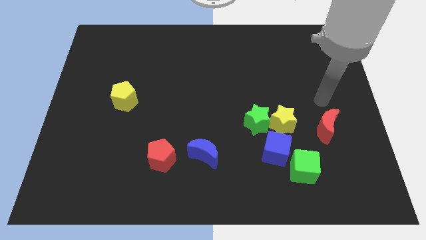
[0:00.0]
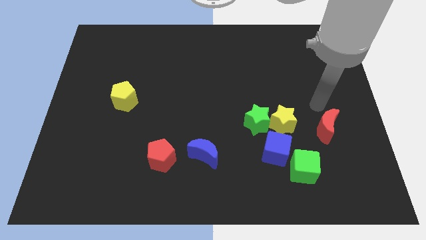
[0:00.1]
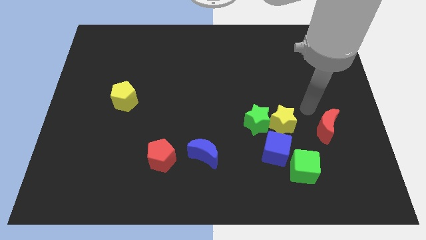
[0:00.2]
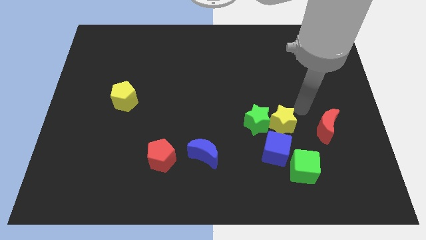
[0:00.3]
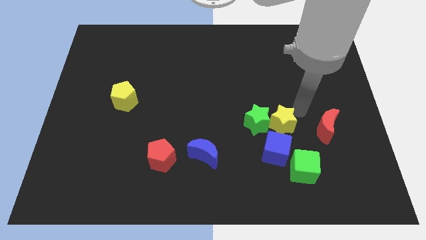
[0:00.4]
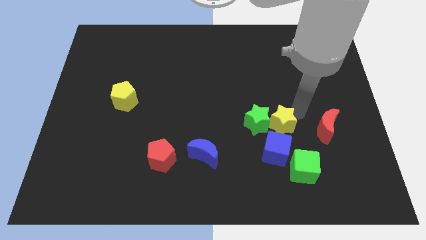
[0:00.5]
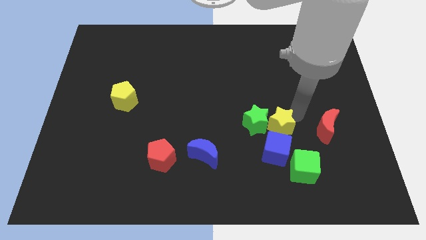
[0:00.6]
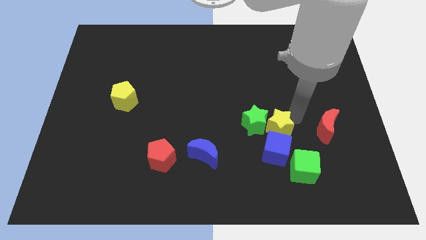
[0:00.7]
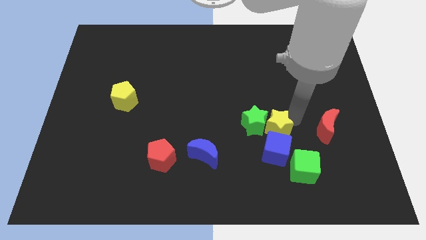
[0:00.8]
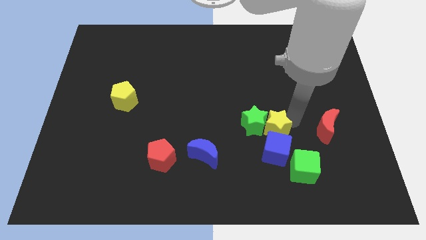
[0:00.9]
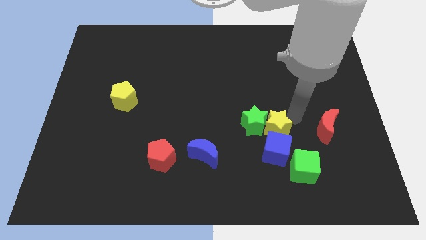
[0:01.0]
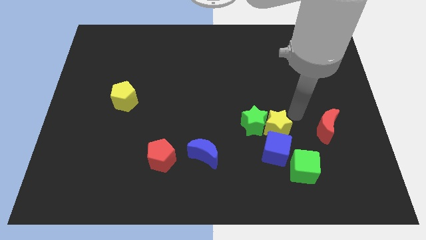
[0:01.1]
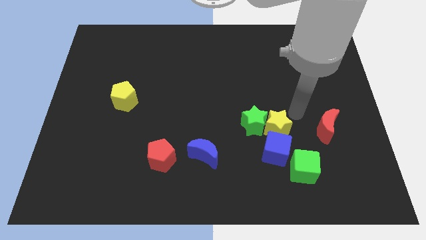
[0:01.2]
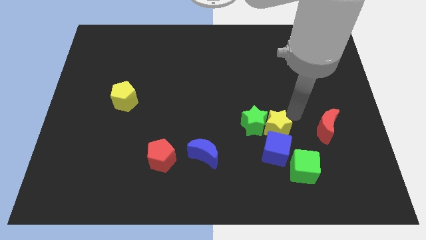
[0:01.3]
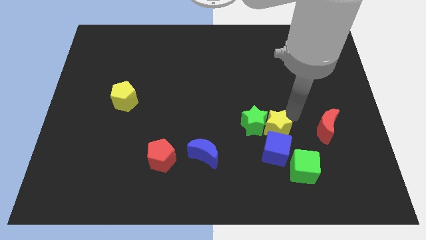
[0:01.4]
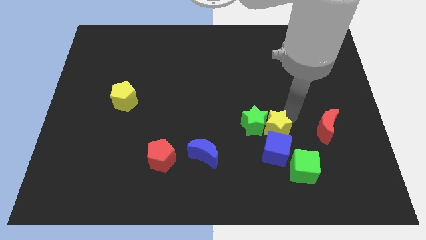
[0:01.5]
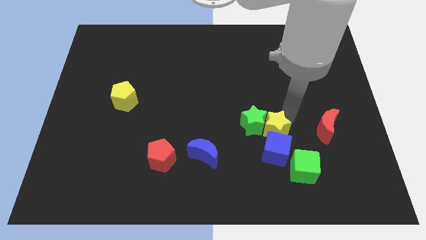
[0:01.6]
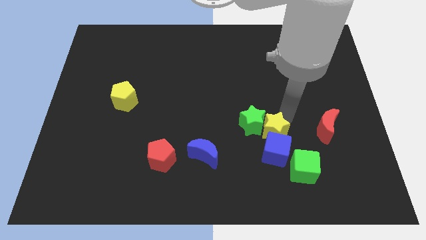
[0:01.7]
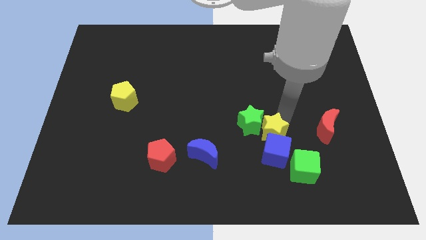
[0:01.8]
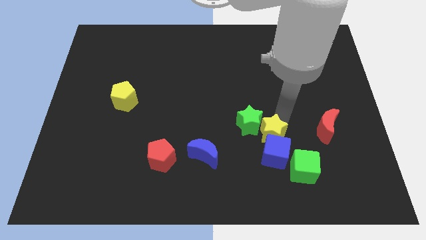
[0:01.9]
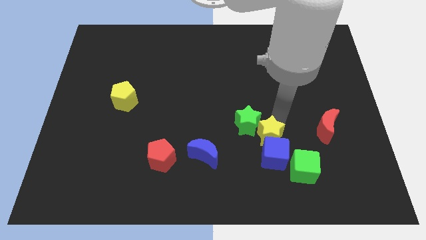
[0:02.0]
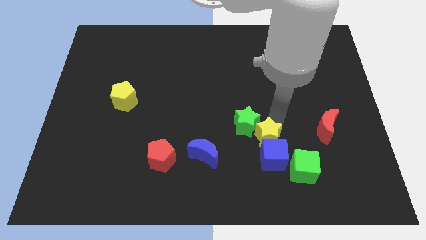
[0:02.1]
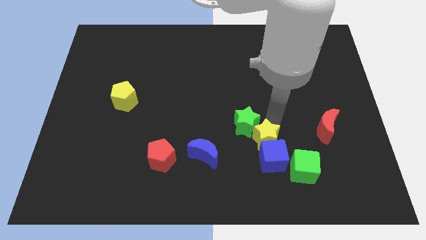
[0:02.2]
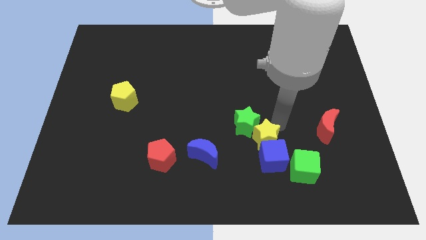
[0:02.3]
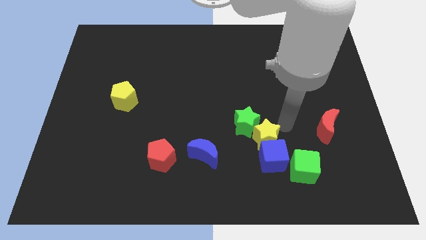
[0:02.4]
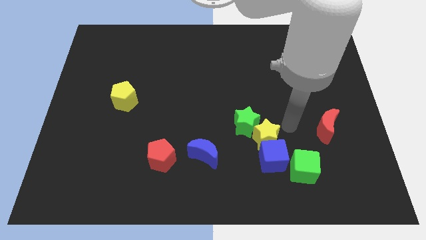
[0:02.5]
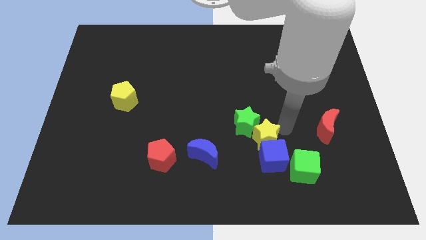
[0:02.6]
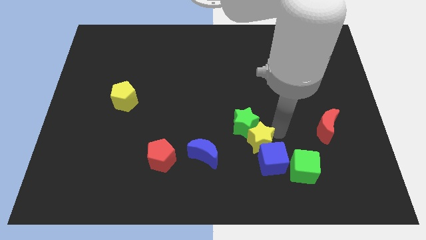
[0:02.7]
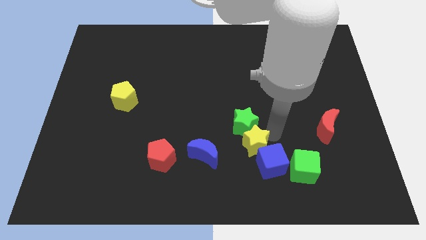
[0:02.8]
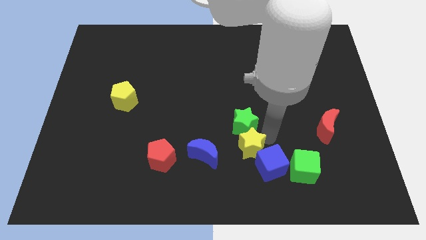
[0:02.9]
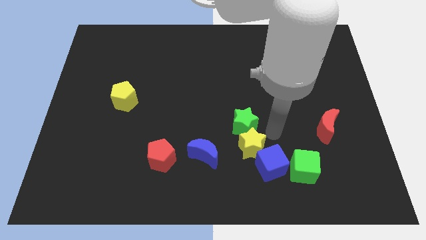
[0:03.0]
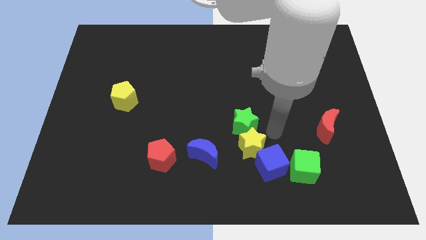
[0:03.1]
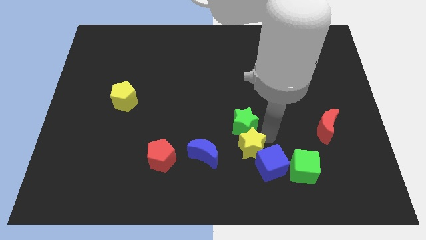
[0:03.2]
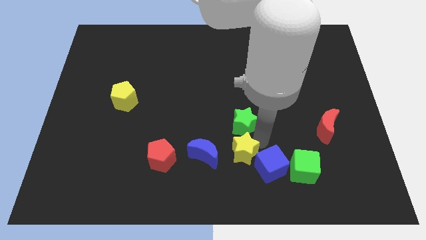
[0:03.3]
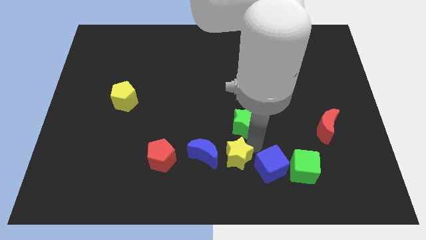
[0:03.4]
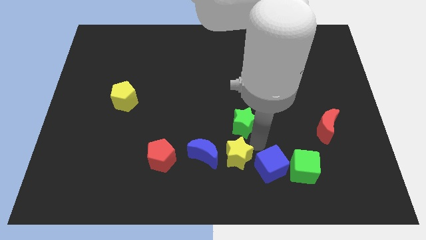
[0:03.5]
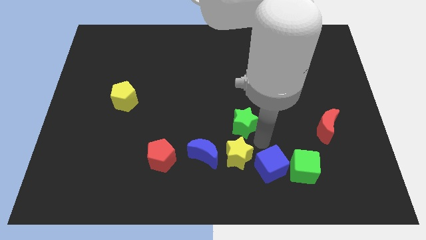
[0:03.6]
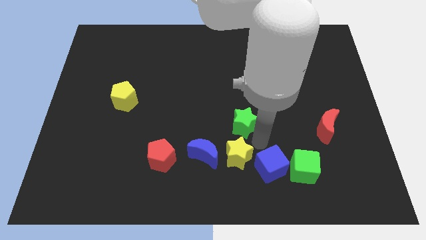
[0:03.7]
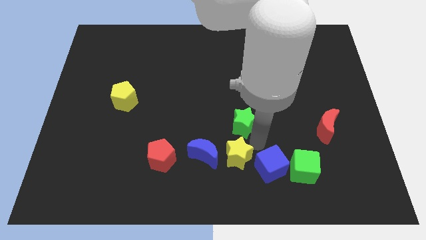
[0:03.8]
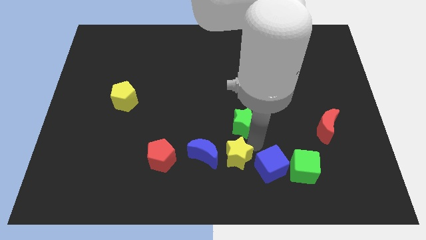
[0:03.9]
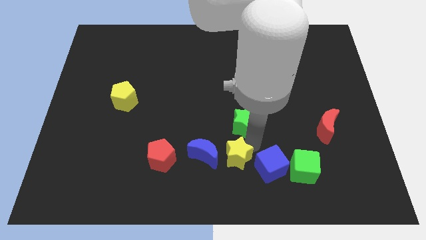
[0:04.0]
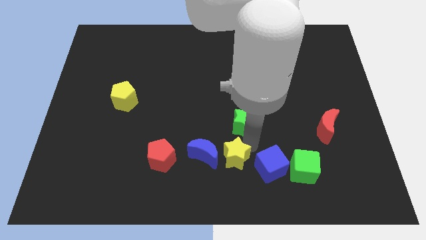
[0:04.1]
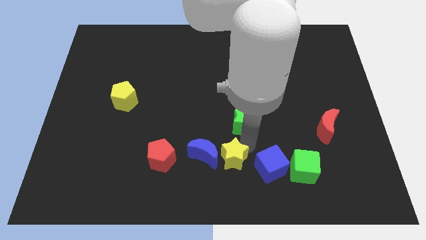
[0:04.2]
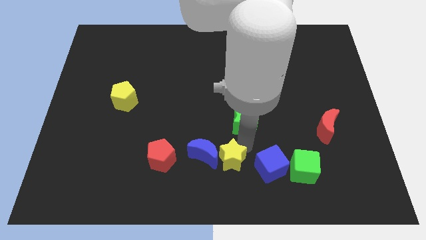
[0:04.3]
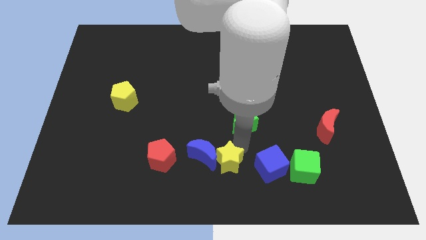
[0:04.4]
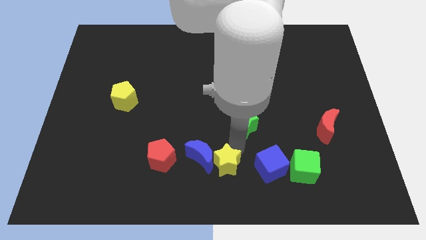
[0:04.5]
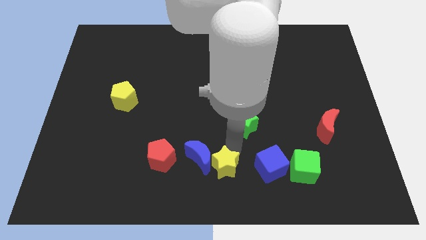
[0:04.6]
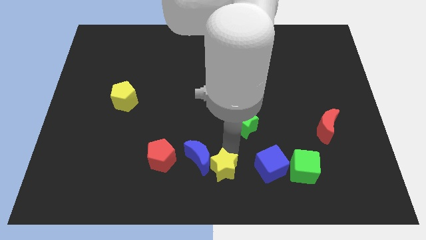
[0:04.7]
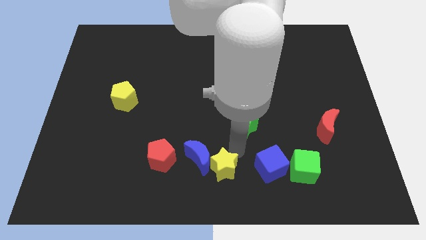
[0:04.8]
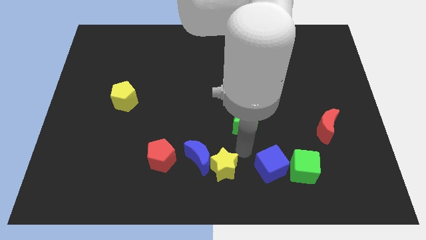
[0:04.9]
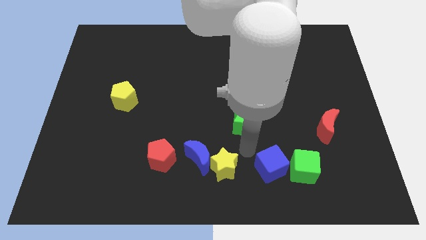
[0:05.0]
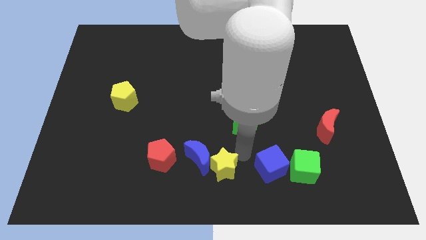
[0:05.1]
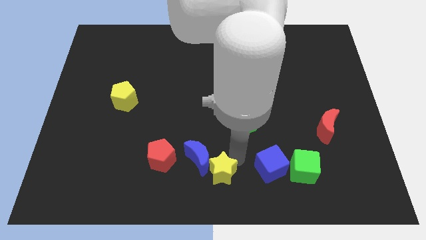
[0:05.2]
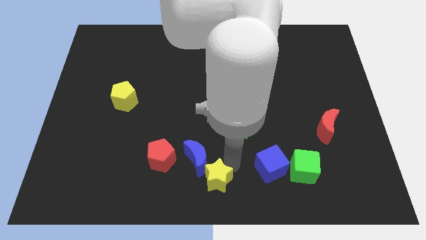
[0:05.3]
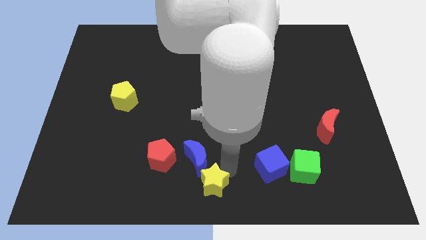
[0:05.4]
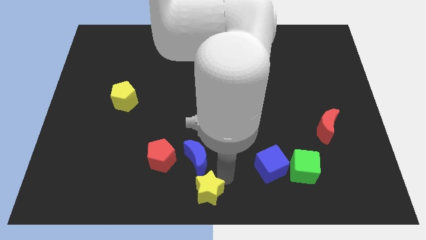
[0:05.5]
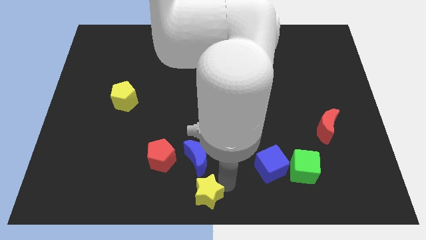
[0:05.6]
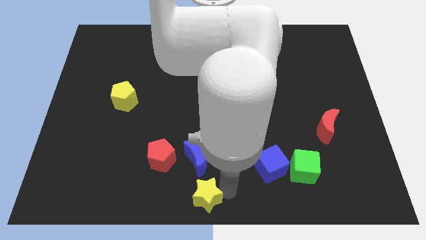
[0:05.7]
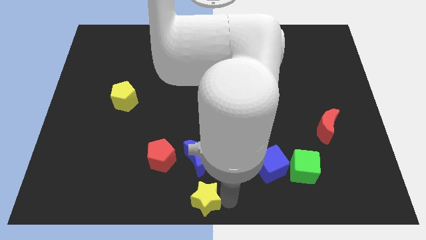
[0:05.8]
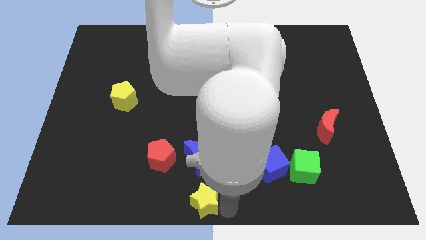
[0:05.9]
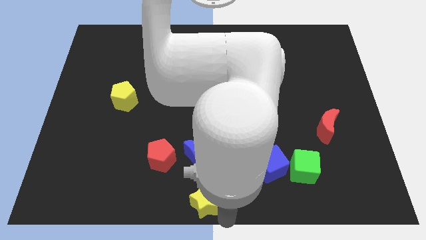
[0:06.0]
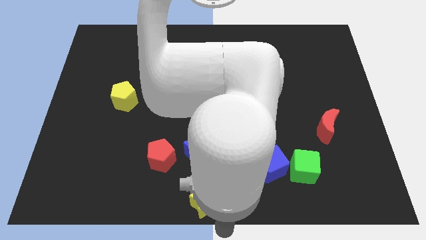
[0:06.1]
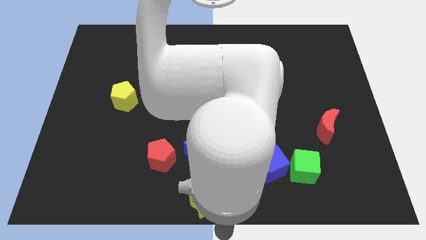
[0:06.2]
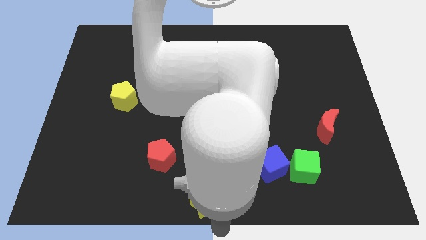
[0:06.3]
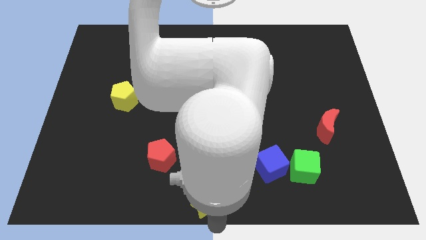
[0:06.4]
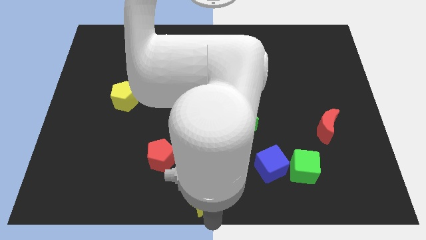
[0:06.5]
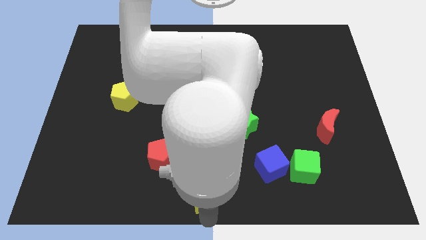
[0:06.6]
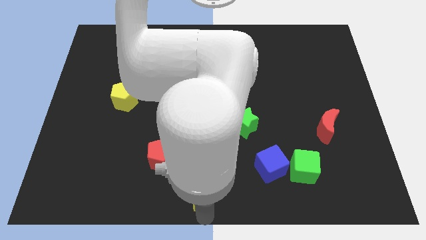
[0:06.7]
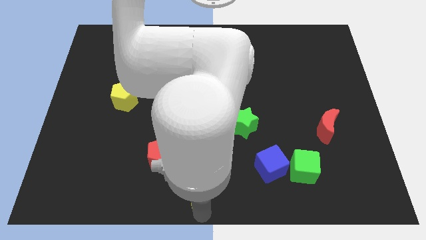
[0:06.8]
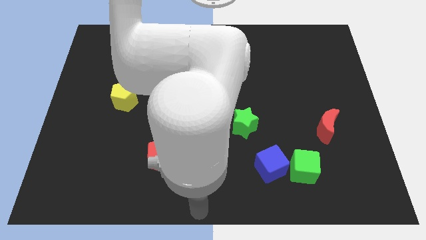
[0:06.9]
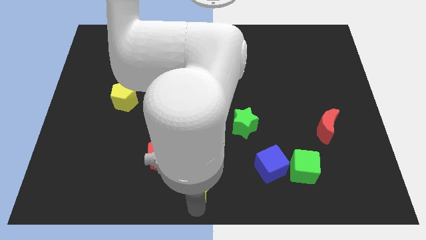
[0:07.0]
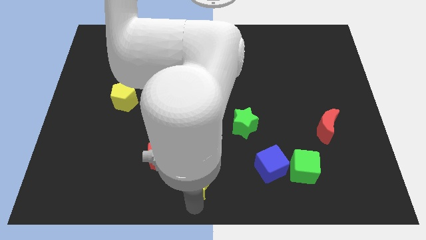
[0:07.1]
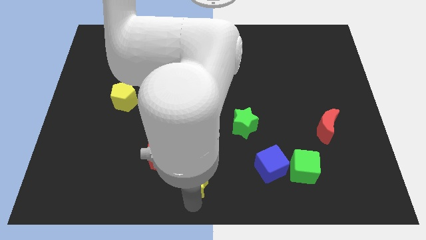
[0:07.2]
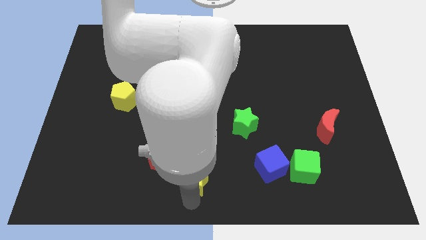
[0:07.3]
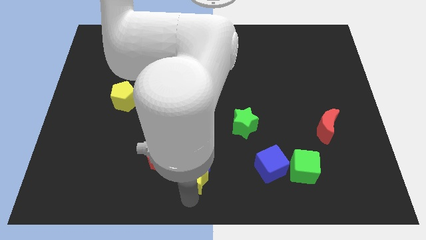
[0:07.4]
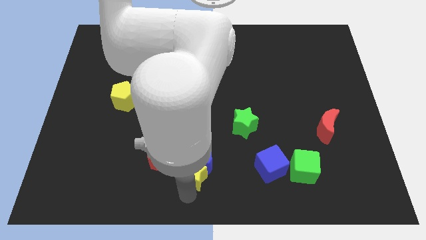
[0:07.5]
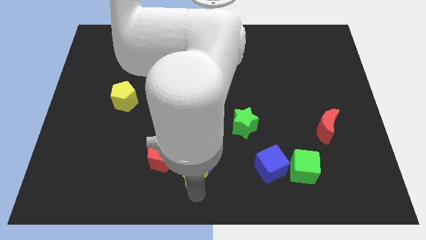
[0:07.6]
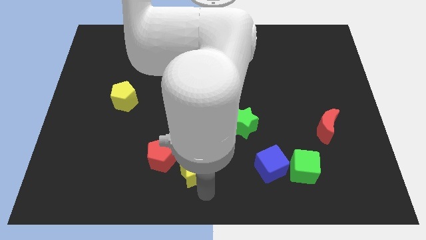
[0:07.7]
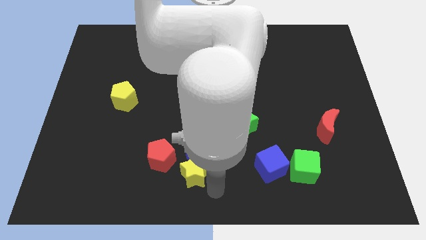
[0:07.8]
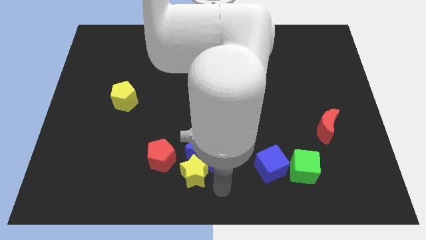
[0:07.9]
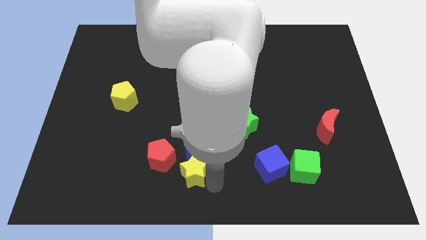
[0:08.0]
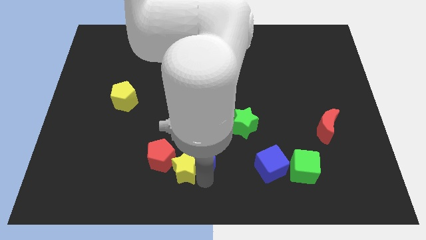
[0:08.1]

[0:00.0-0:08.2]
put the yellow star next to the red pentagon
